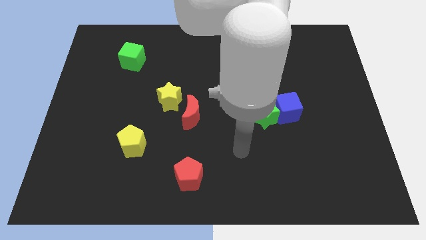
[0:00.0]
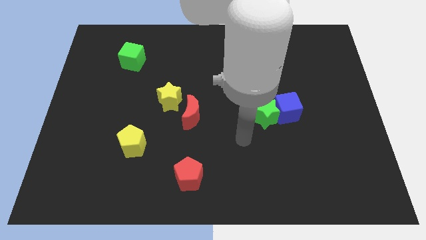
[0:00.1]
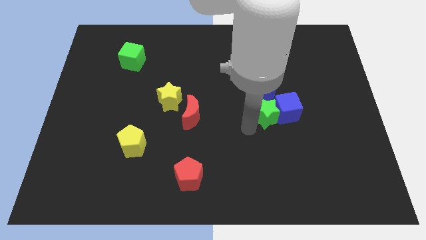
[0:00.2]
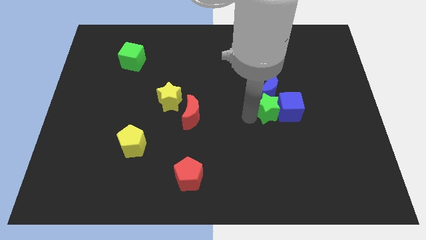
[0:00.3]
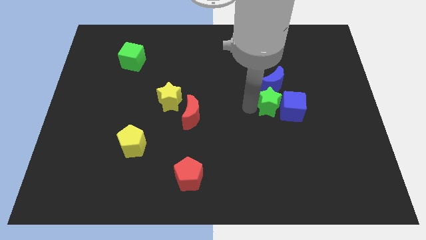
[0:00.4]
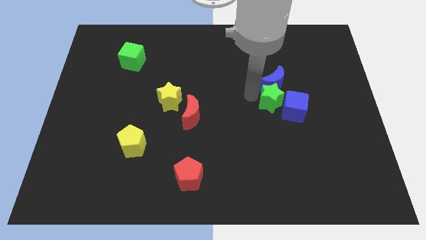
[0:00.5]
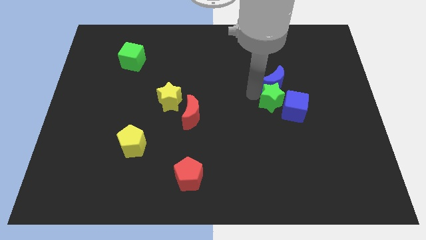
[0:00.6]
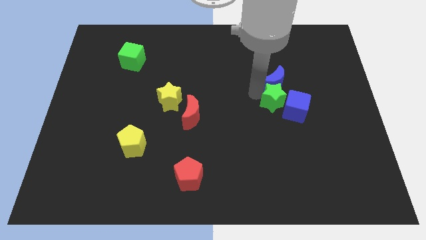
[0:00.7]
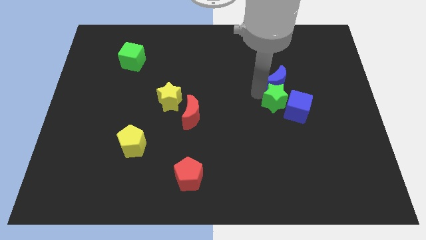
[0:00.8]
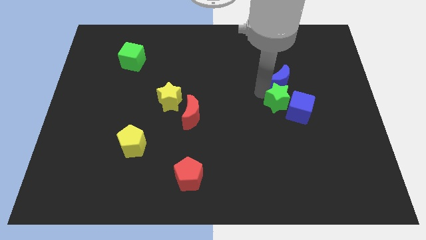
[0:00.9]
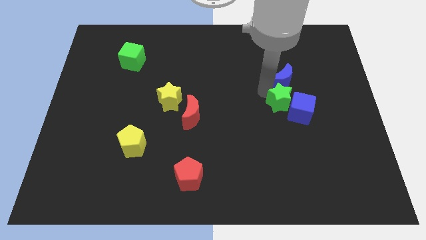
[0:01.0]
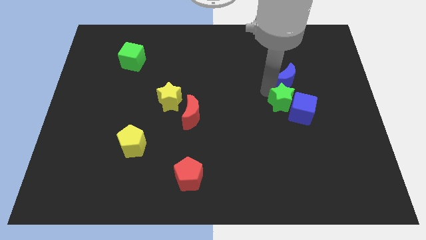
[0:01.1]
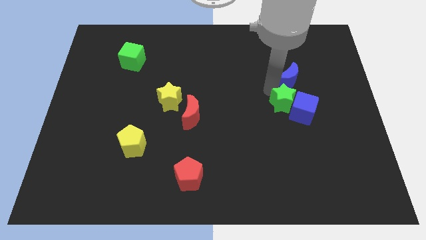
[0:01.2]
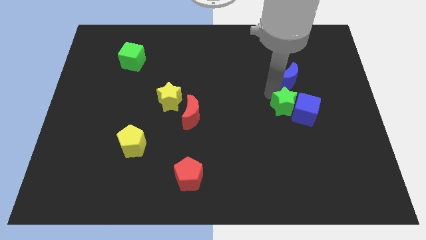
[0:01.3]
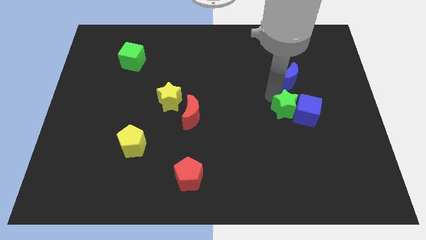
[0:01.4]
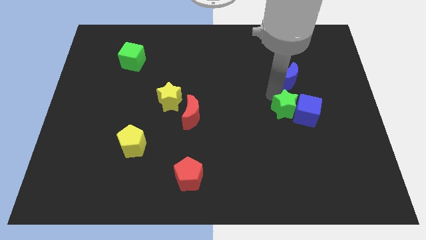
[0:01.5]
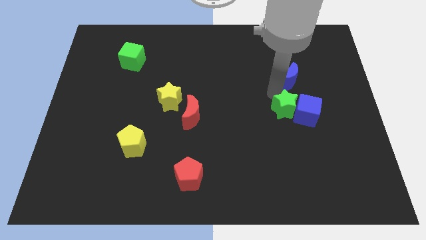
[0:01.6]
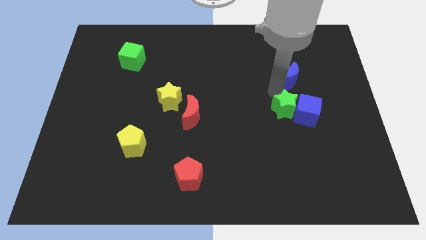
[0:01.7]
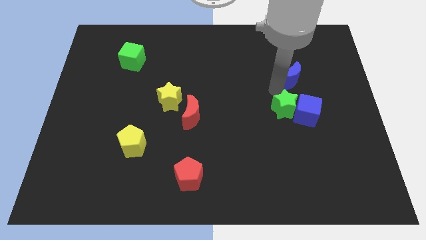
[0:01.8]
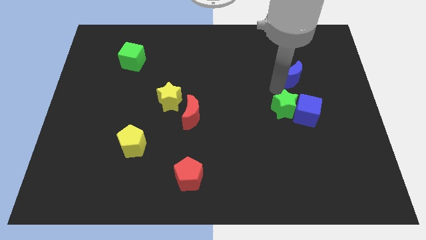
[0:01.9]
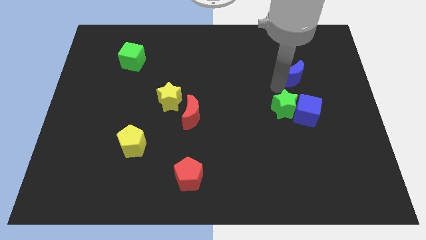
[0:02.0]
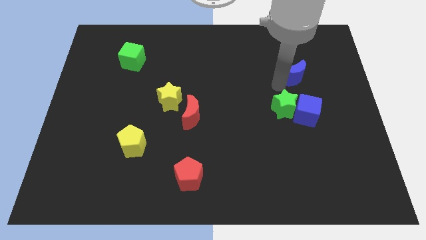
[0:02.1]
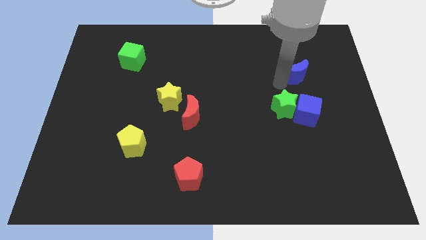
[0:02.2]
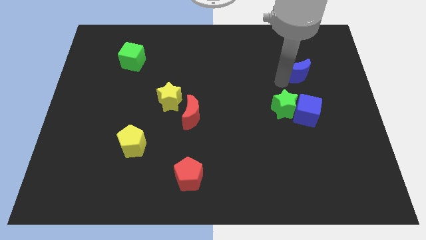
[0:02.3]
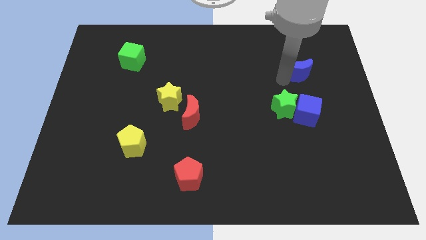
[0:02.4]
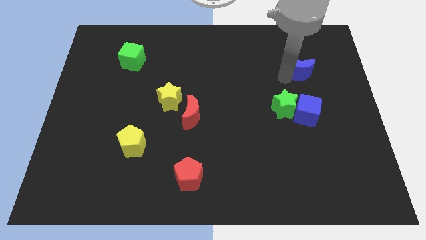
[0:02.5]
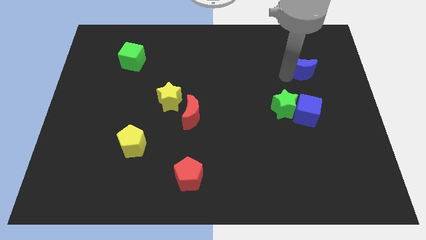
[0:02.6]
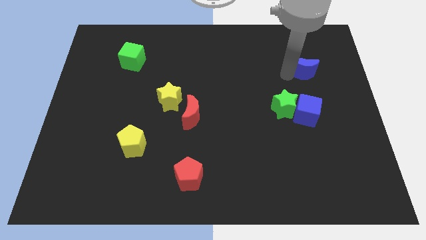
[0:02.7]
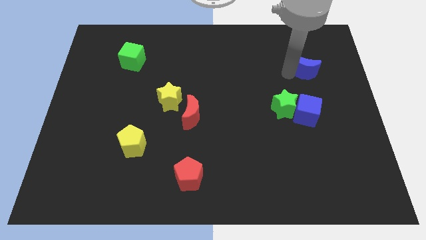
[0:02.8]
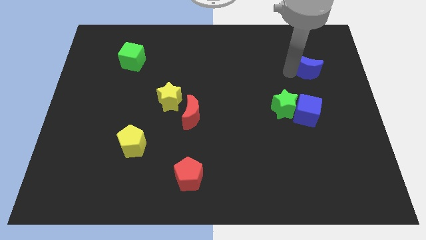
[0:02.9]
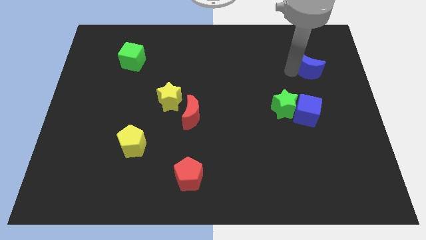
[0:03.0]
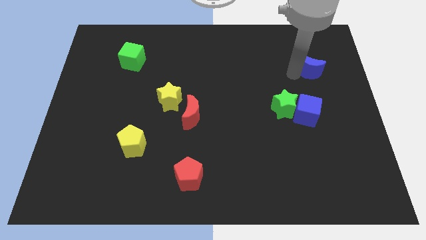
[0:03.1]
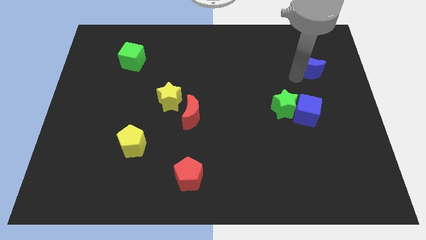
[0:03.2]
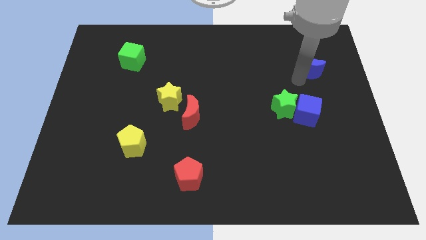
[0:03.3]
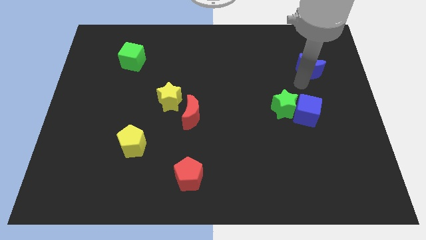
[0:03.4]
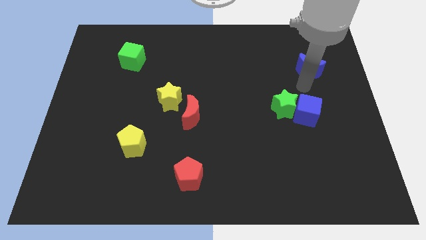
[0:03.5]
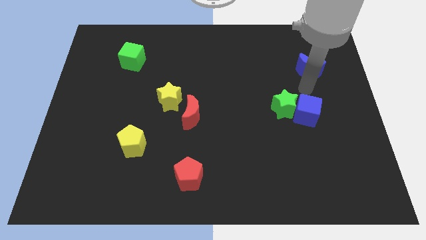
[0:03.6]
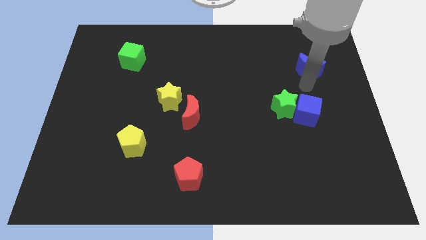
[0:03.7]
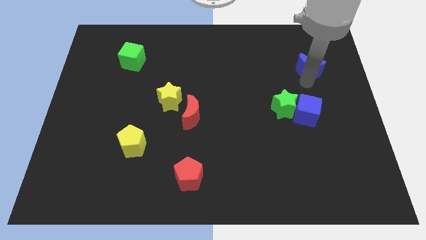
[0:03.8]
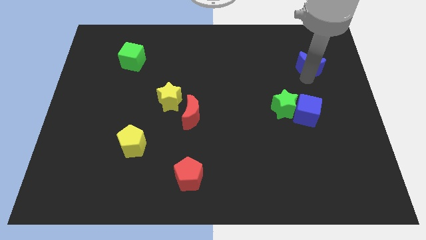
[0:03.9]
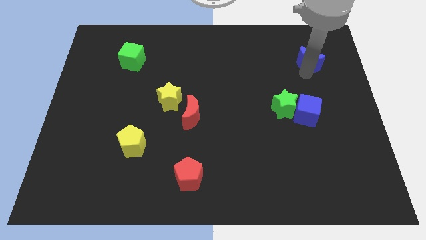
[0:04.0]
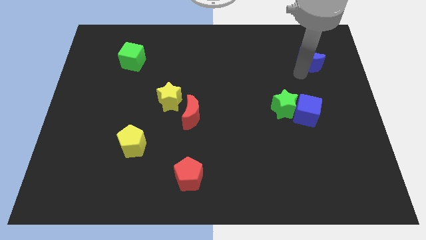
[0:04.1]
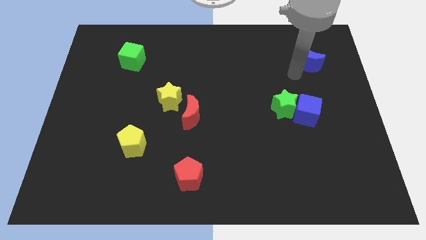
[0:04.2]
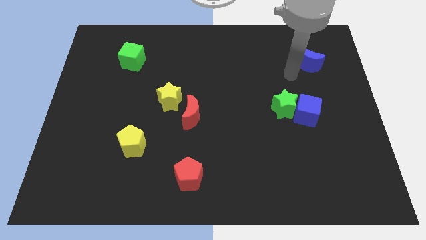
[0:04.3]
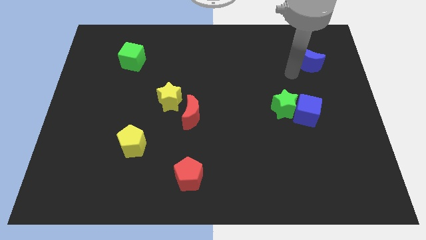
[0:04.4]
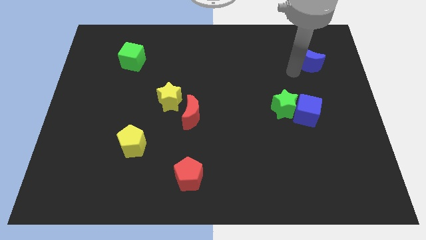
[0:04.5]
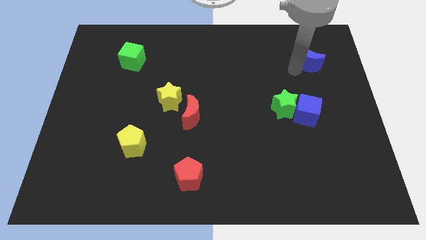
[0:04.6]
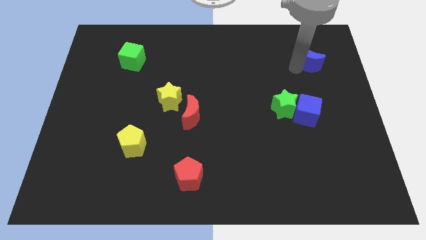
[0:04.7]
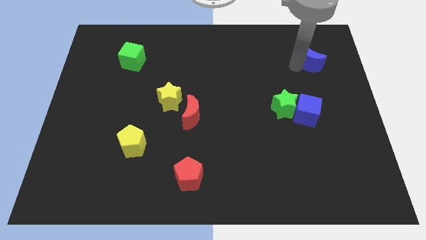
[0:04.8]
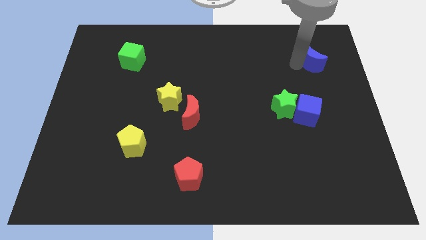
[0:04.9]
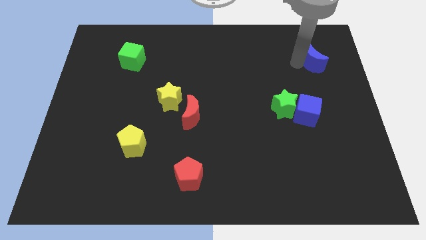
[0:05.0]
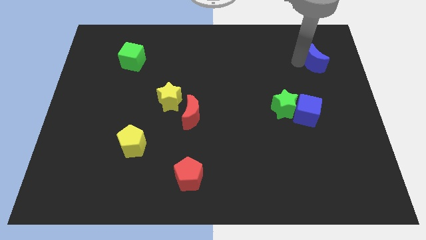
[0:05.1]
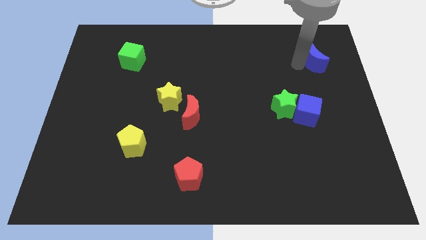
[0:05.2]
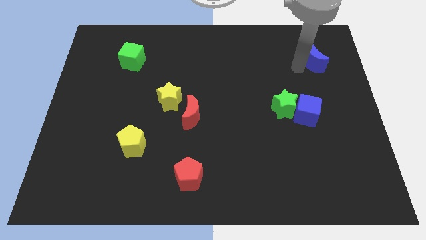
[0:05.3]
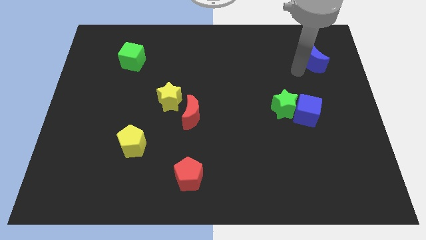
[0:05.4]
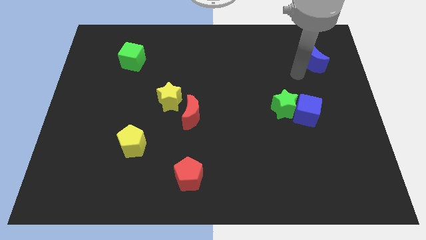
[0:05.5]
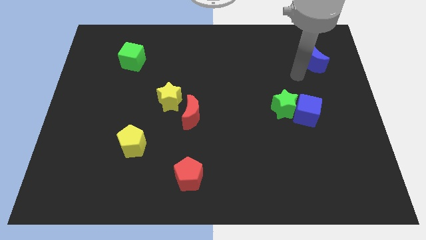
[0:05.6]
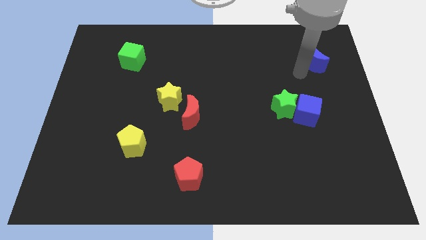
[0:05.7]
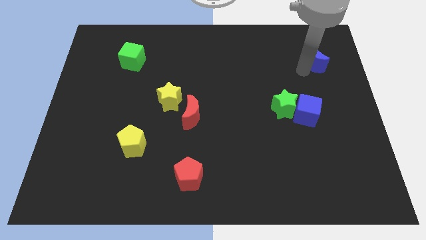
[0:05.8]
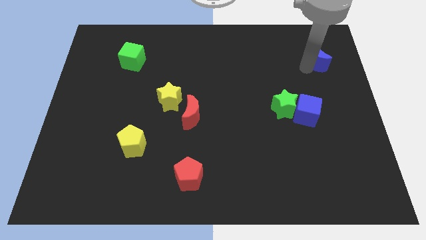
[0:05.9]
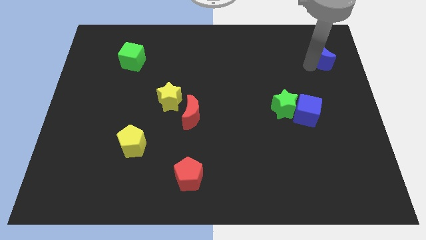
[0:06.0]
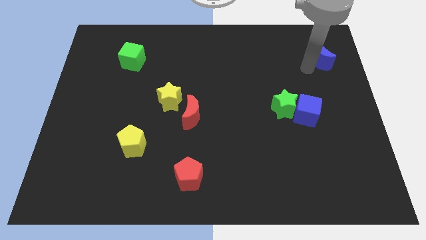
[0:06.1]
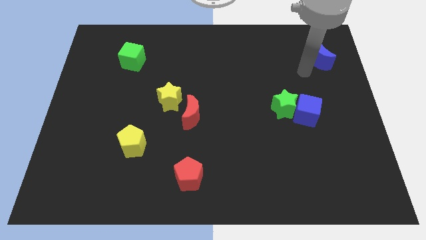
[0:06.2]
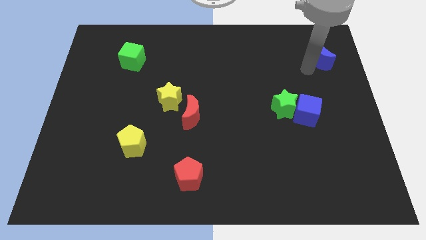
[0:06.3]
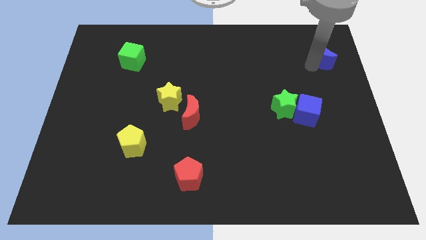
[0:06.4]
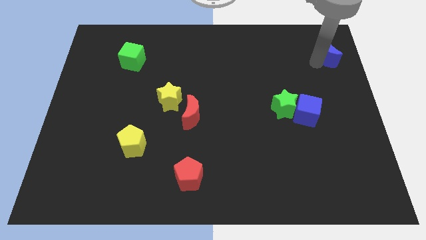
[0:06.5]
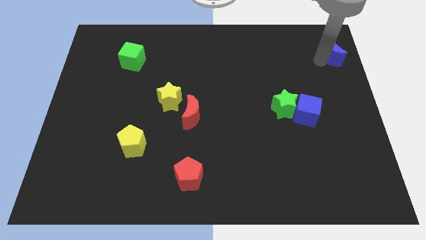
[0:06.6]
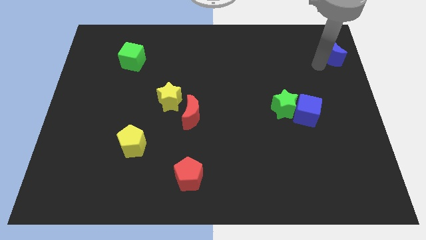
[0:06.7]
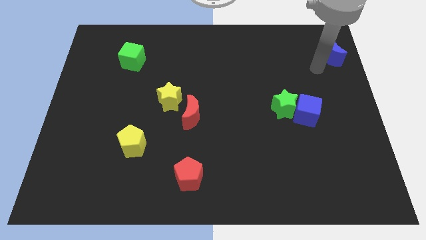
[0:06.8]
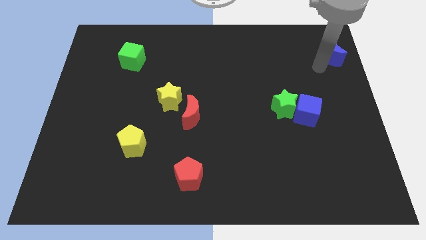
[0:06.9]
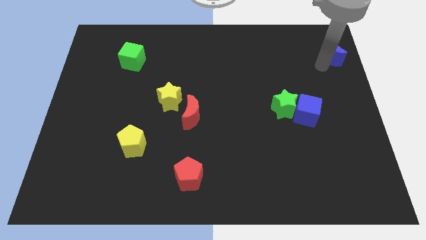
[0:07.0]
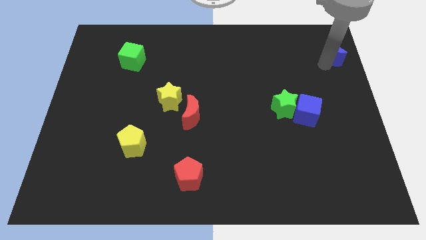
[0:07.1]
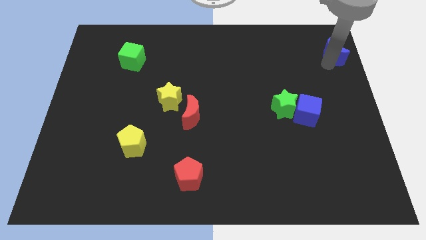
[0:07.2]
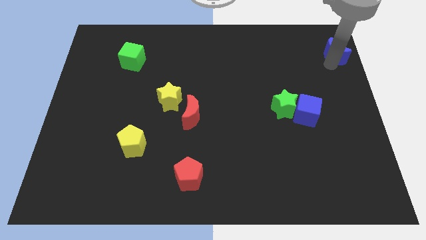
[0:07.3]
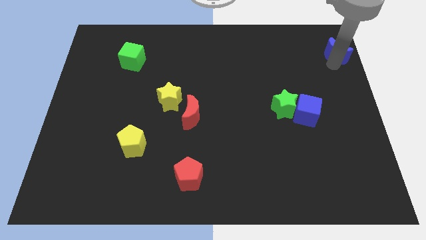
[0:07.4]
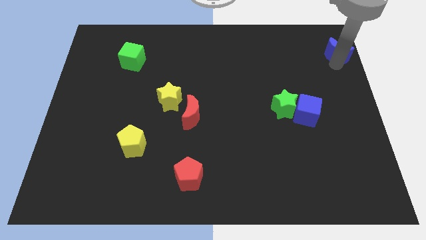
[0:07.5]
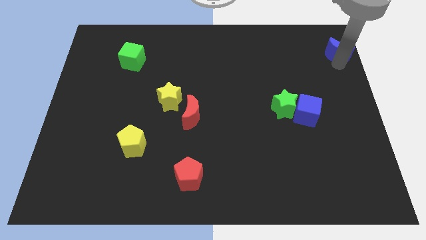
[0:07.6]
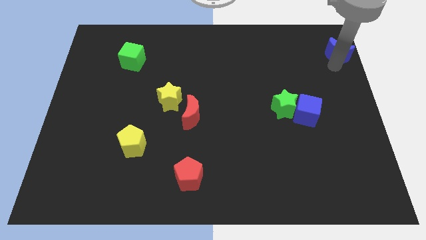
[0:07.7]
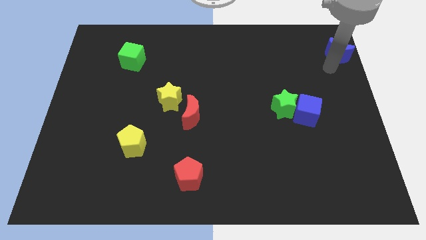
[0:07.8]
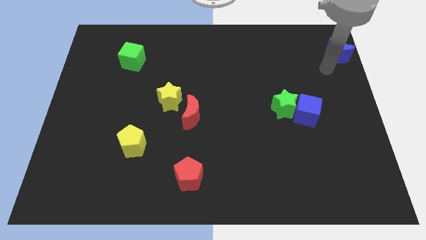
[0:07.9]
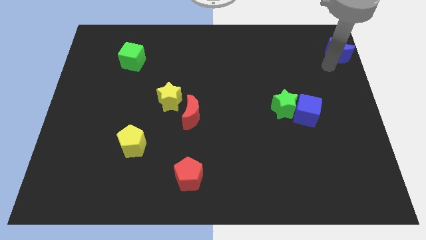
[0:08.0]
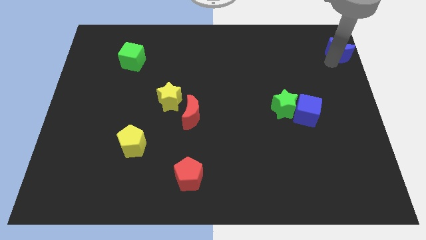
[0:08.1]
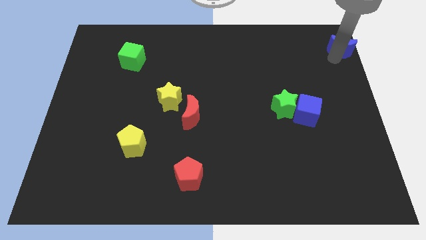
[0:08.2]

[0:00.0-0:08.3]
put the blue moon to the top right of the board
